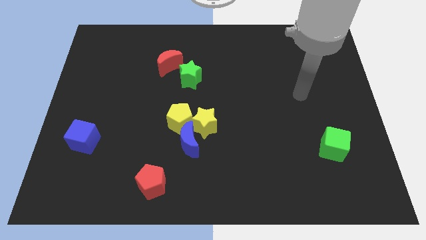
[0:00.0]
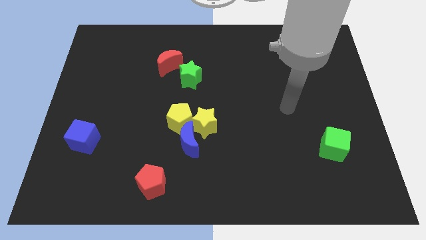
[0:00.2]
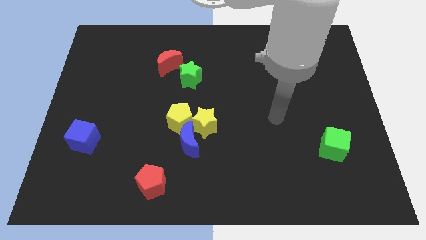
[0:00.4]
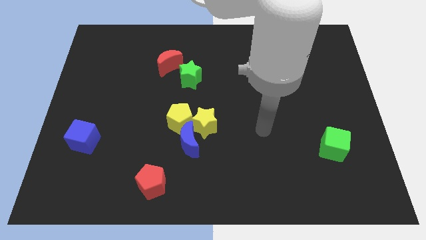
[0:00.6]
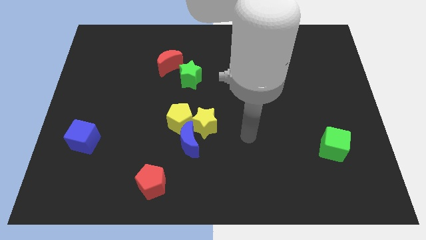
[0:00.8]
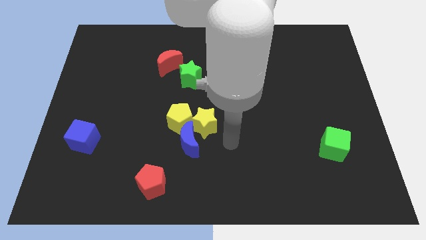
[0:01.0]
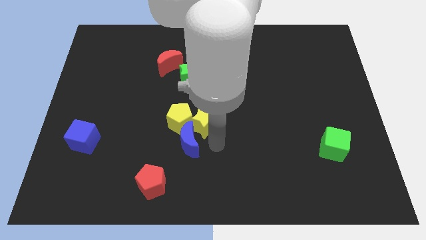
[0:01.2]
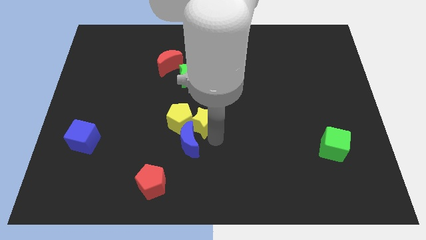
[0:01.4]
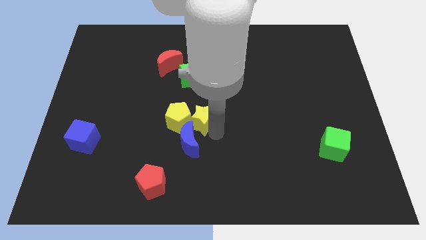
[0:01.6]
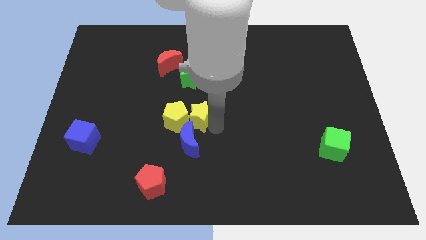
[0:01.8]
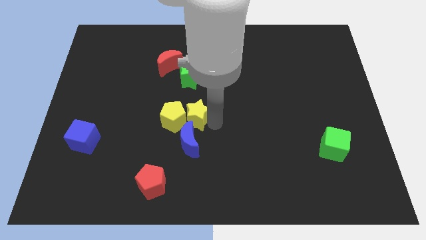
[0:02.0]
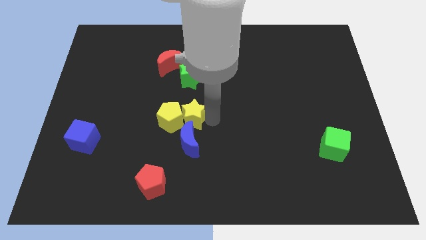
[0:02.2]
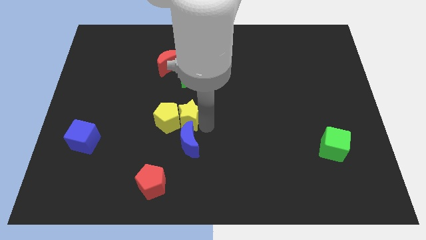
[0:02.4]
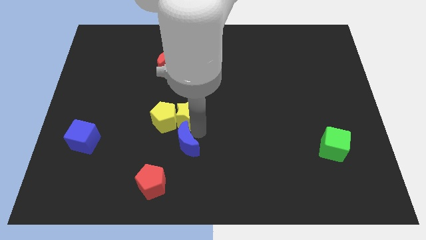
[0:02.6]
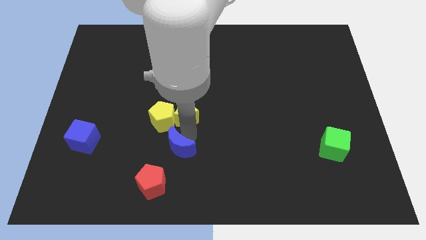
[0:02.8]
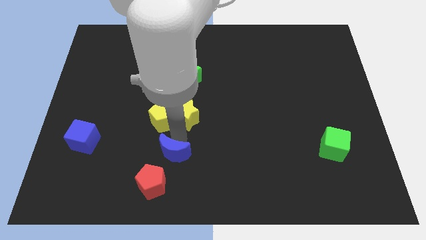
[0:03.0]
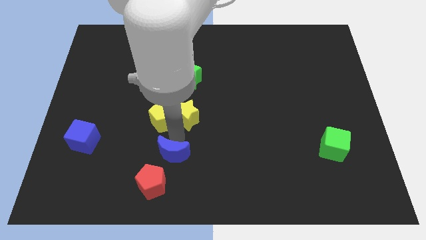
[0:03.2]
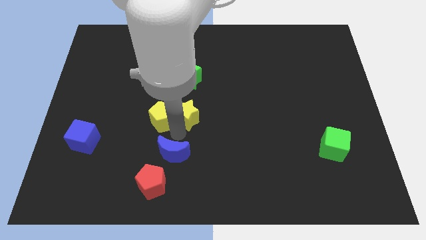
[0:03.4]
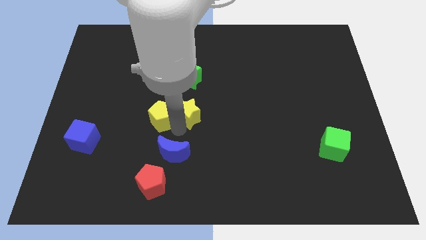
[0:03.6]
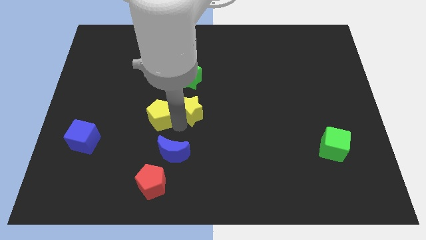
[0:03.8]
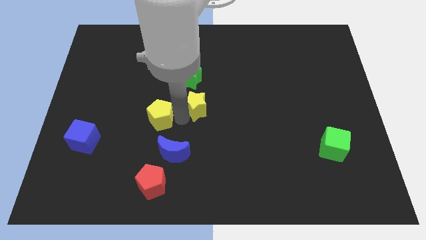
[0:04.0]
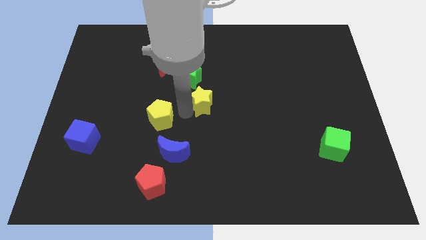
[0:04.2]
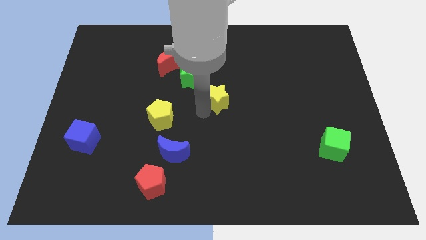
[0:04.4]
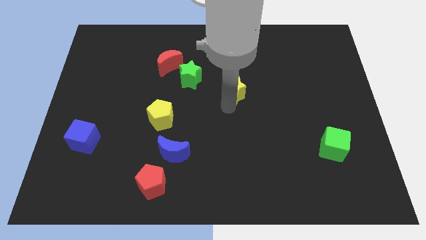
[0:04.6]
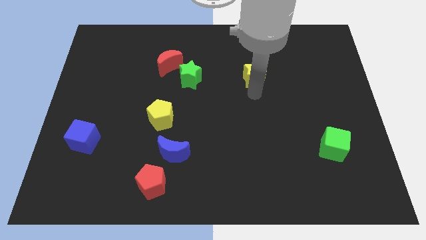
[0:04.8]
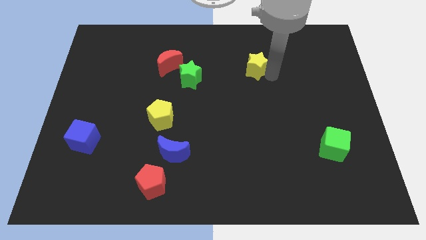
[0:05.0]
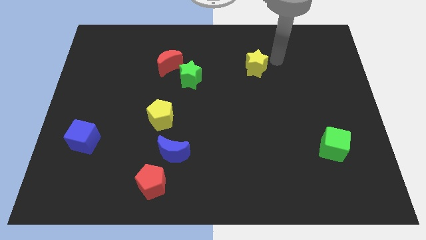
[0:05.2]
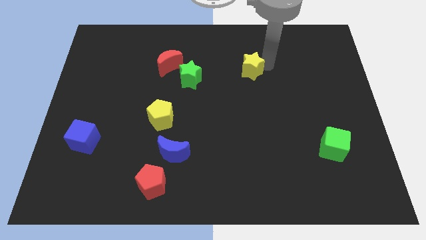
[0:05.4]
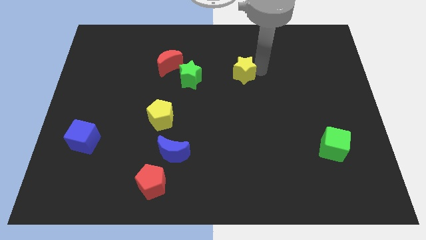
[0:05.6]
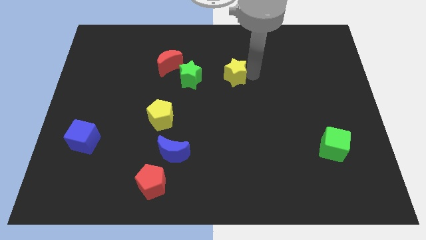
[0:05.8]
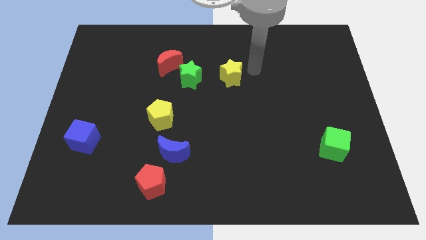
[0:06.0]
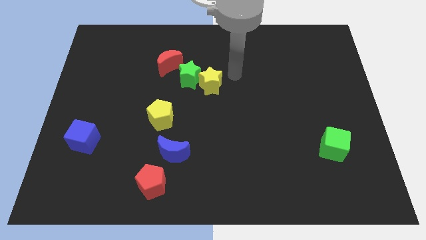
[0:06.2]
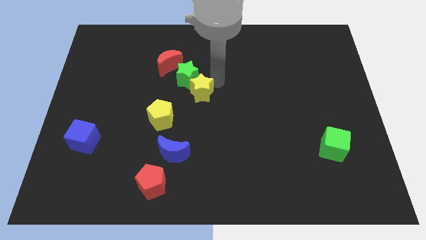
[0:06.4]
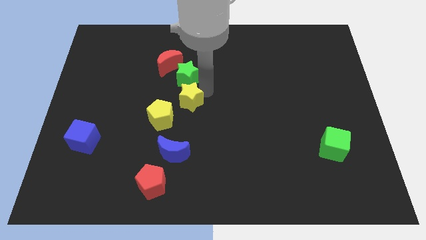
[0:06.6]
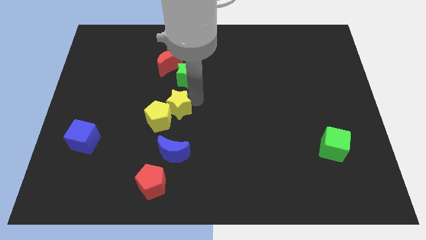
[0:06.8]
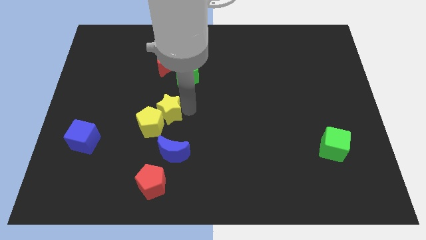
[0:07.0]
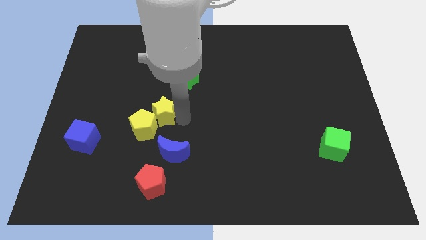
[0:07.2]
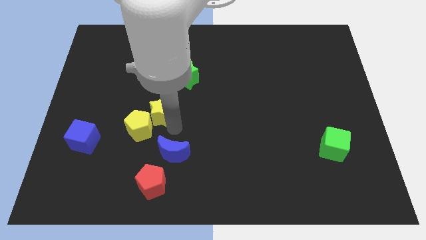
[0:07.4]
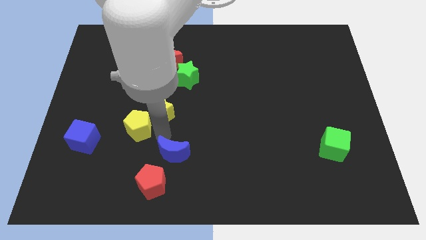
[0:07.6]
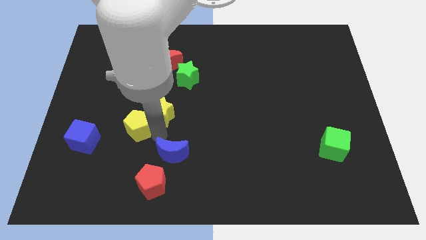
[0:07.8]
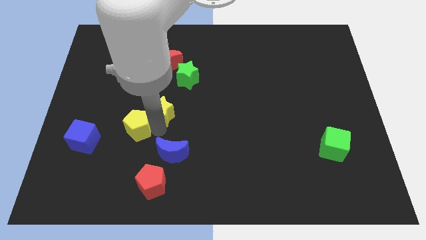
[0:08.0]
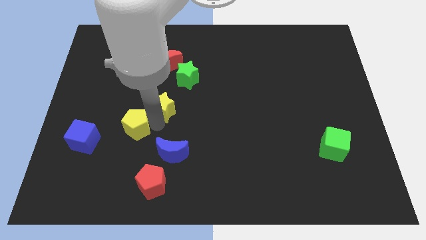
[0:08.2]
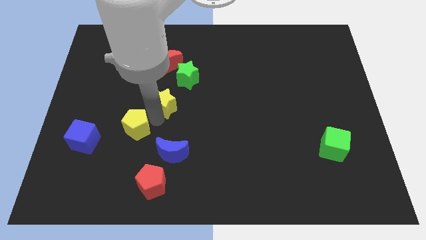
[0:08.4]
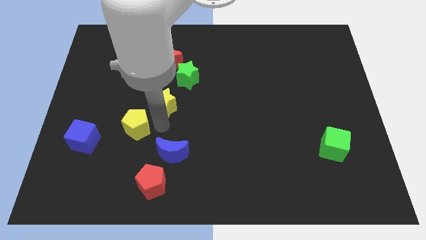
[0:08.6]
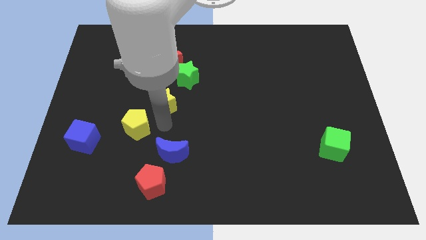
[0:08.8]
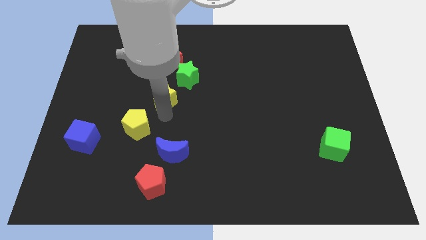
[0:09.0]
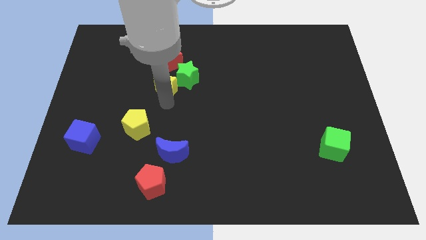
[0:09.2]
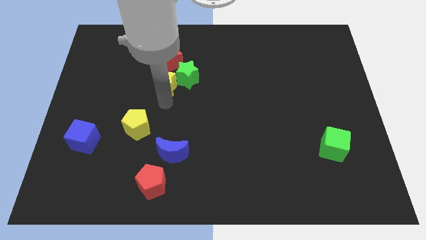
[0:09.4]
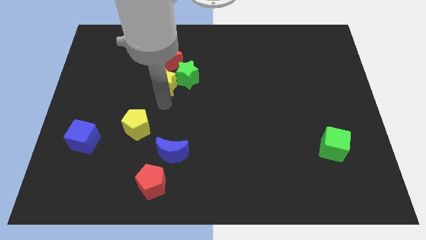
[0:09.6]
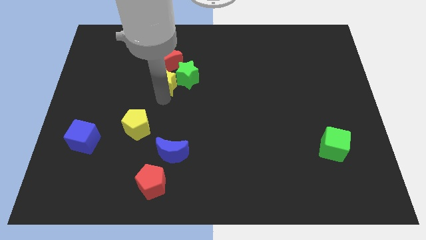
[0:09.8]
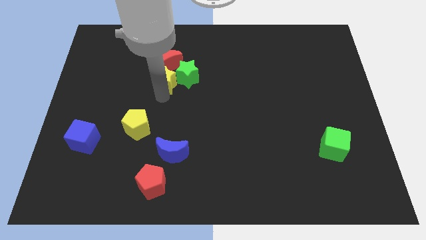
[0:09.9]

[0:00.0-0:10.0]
push the yellow star to the red moon
